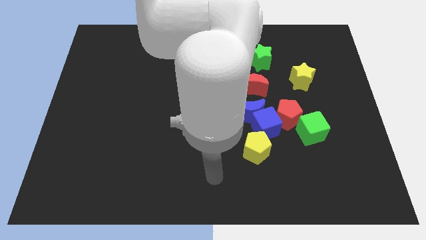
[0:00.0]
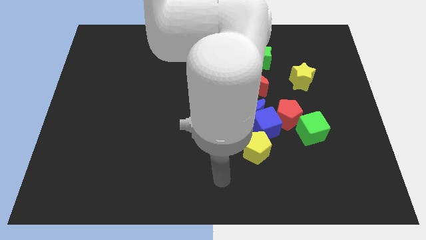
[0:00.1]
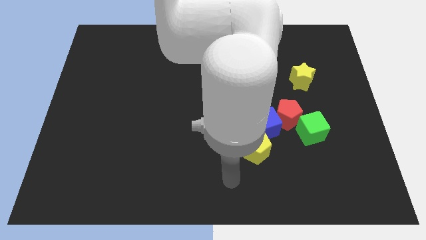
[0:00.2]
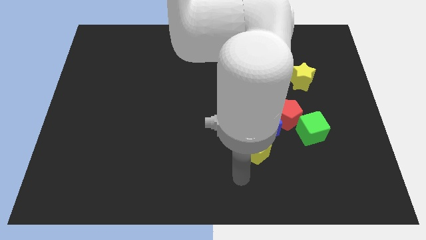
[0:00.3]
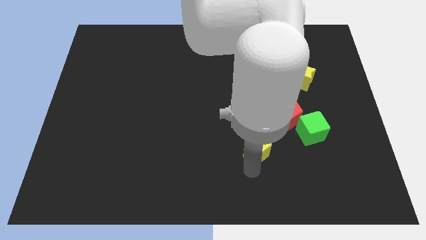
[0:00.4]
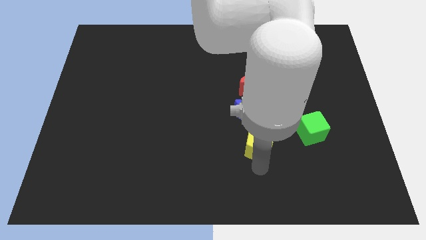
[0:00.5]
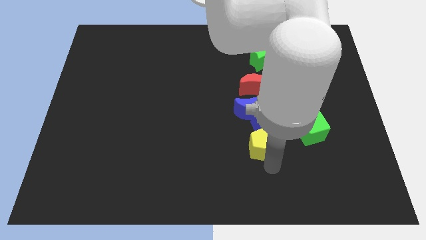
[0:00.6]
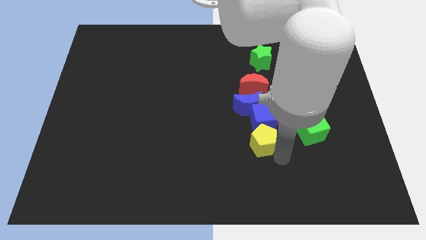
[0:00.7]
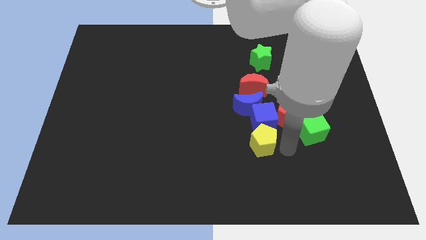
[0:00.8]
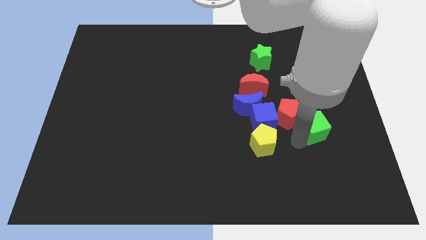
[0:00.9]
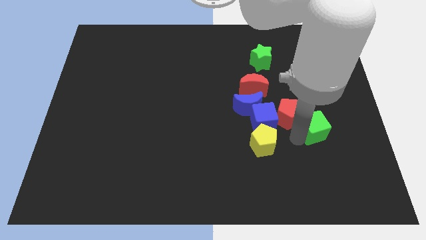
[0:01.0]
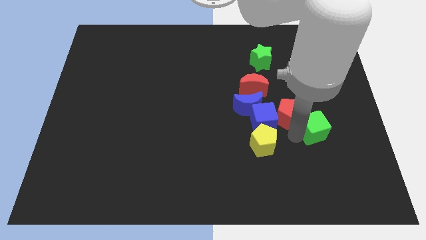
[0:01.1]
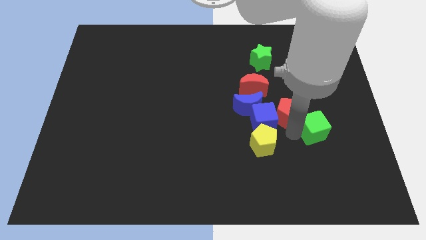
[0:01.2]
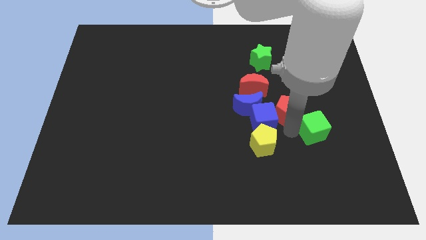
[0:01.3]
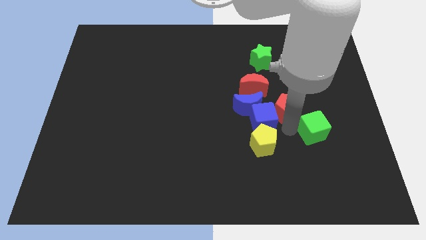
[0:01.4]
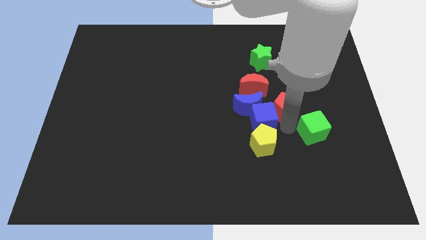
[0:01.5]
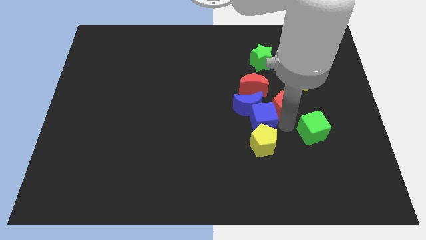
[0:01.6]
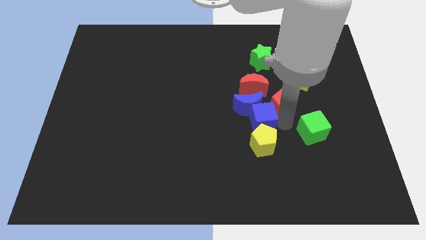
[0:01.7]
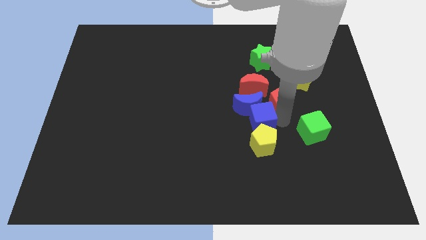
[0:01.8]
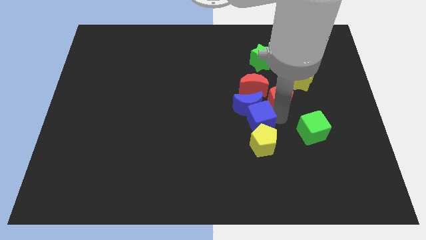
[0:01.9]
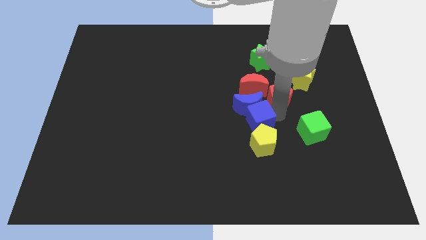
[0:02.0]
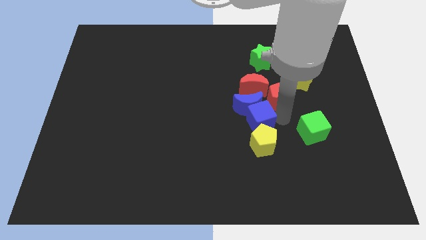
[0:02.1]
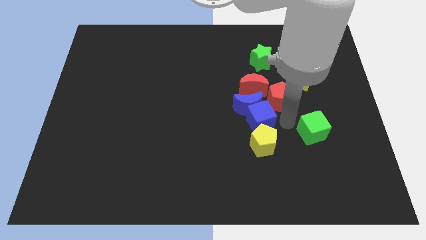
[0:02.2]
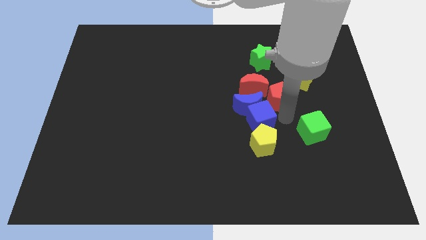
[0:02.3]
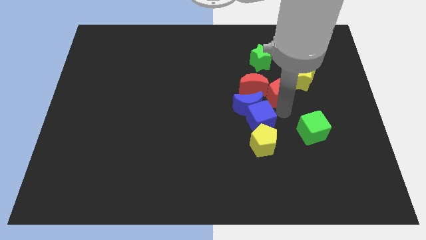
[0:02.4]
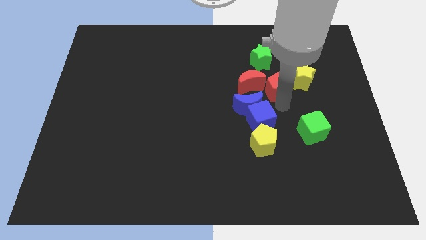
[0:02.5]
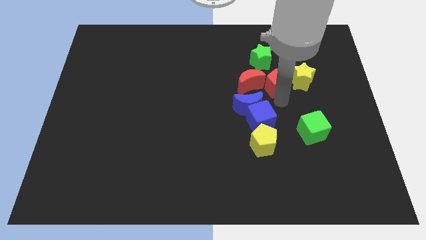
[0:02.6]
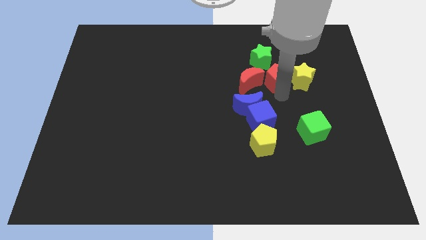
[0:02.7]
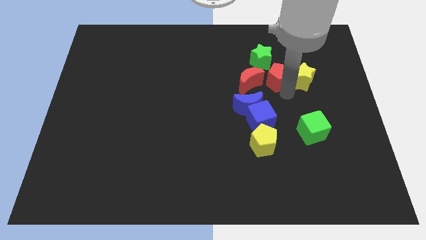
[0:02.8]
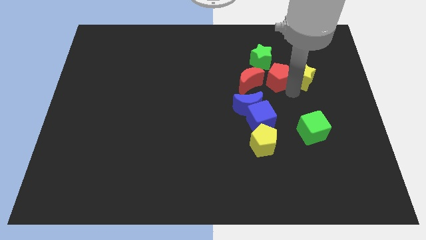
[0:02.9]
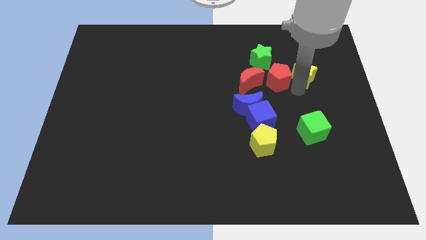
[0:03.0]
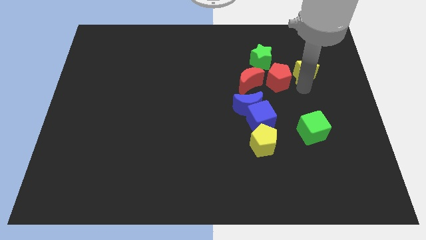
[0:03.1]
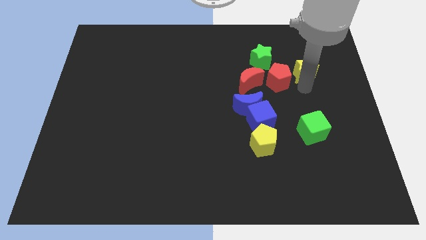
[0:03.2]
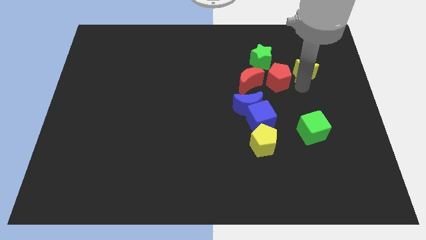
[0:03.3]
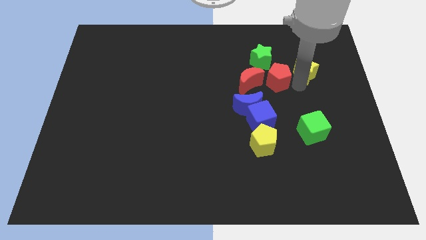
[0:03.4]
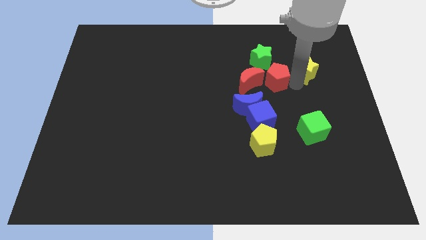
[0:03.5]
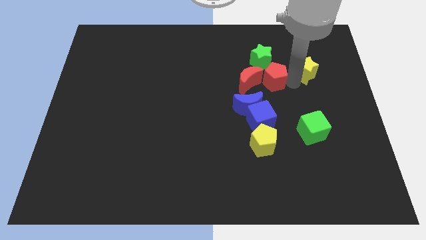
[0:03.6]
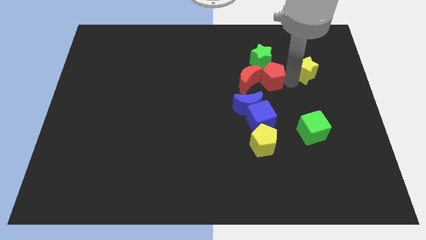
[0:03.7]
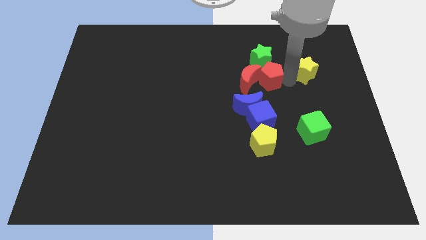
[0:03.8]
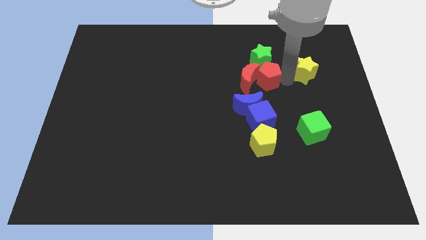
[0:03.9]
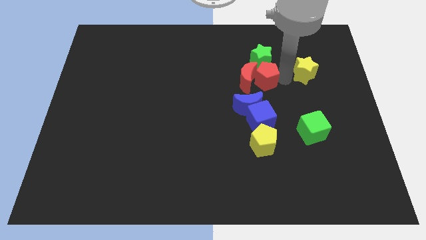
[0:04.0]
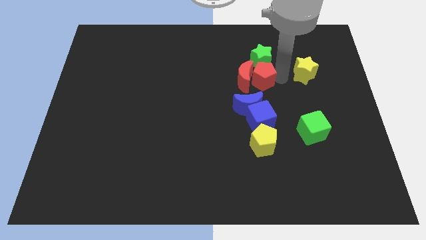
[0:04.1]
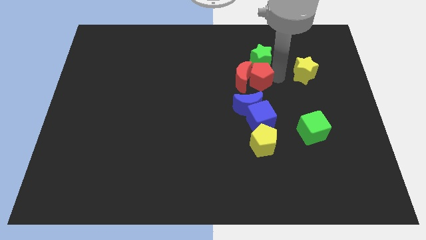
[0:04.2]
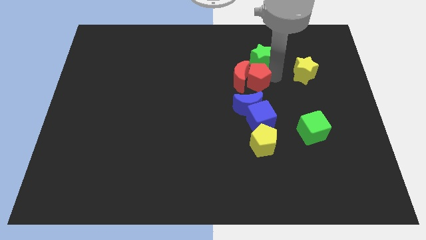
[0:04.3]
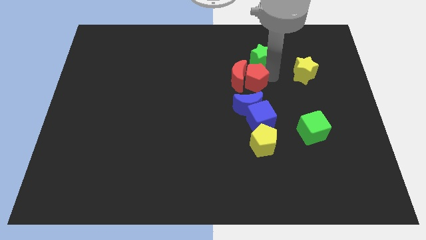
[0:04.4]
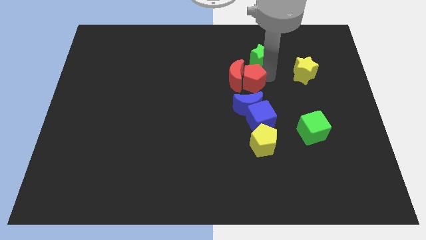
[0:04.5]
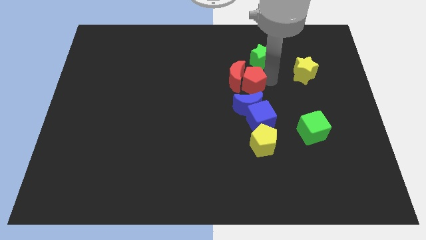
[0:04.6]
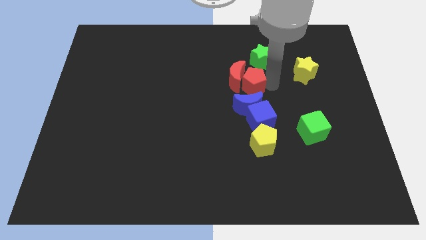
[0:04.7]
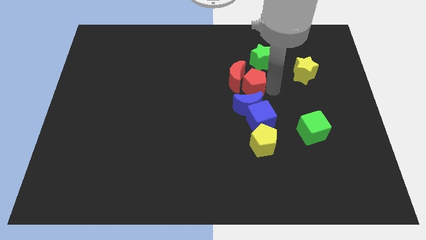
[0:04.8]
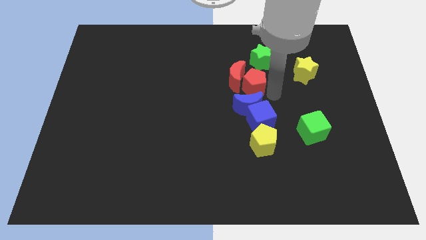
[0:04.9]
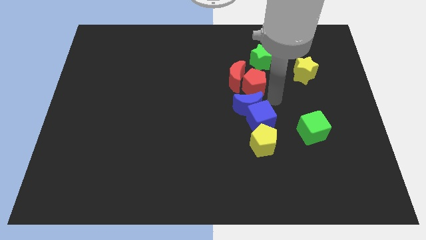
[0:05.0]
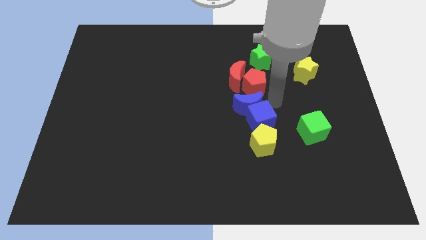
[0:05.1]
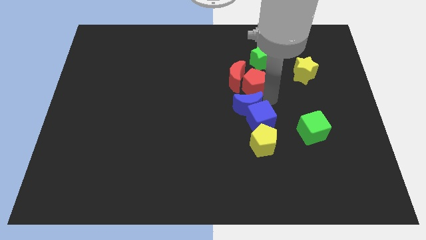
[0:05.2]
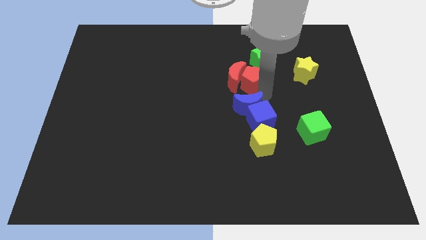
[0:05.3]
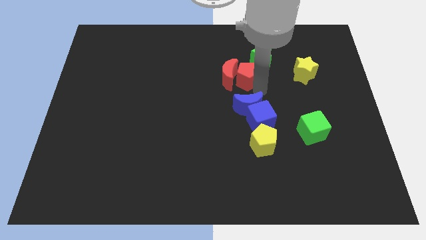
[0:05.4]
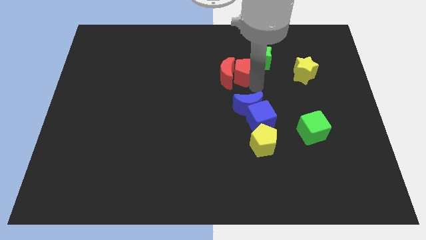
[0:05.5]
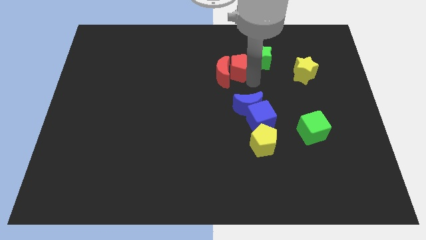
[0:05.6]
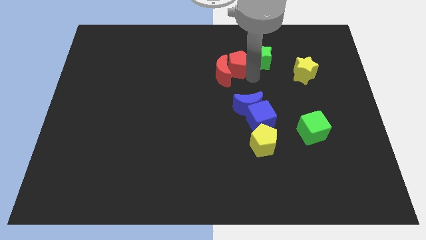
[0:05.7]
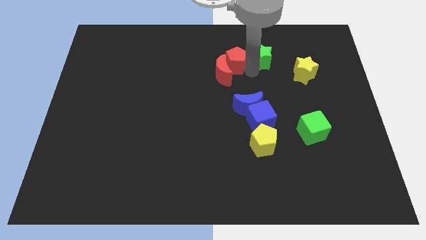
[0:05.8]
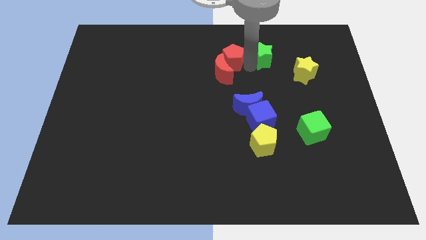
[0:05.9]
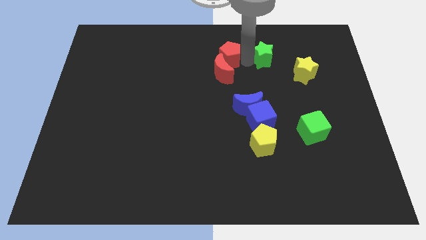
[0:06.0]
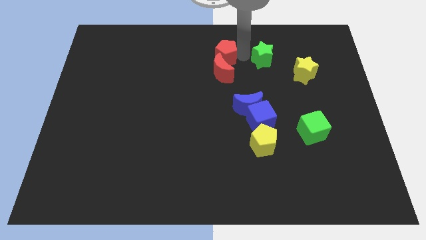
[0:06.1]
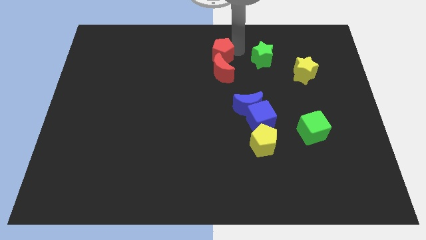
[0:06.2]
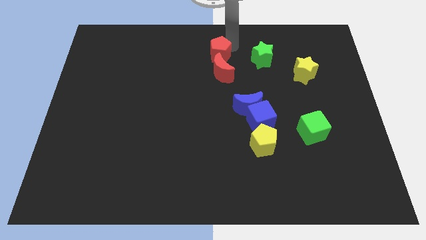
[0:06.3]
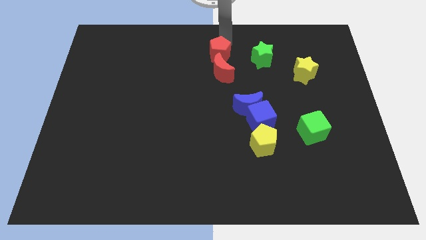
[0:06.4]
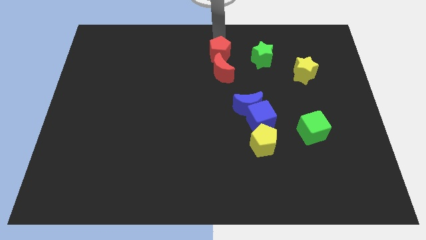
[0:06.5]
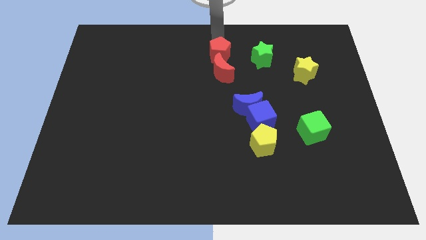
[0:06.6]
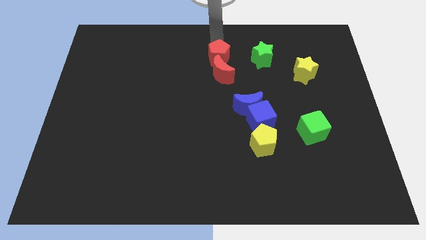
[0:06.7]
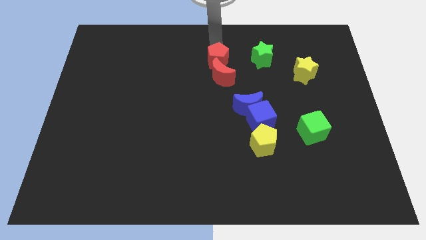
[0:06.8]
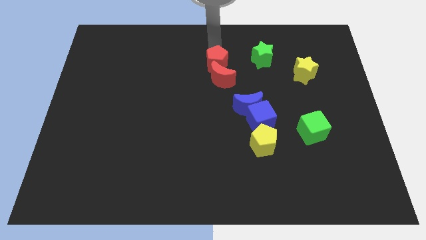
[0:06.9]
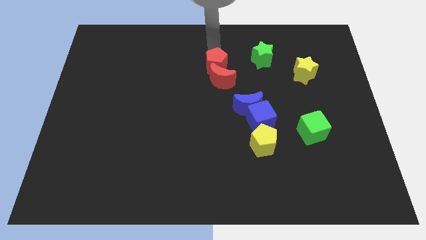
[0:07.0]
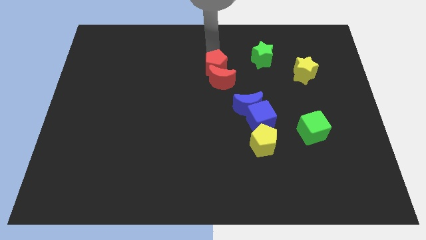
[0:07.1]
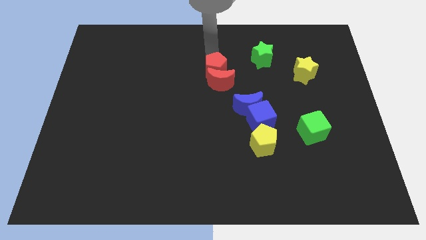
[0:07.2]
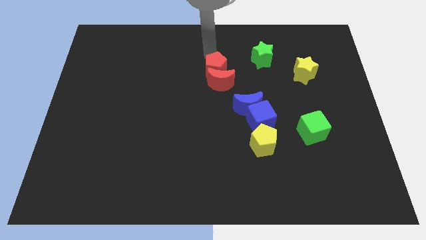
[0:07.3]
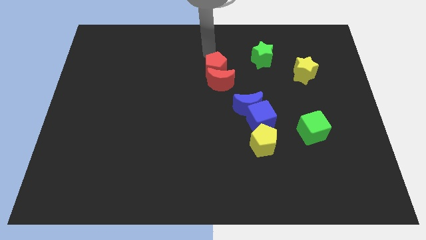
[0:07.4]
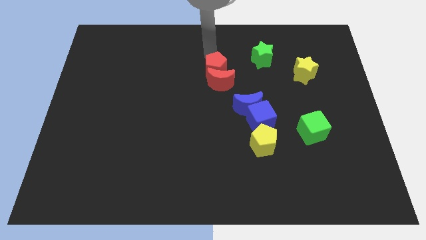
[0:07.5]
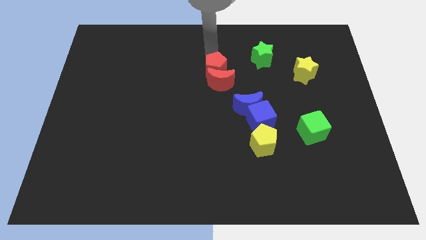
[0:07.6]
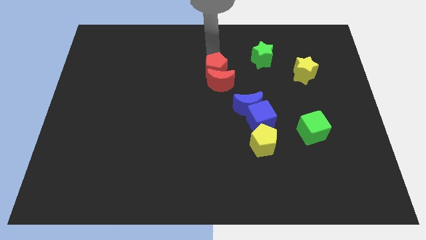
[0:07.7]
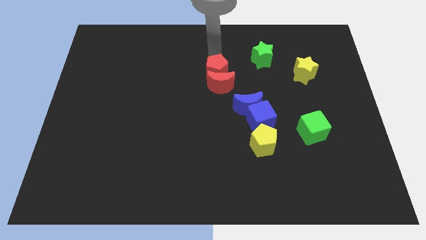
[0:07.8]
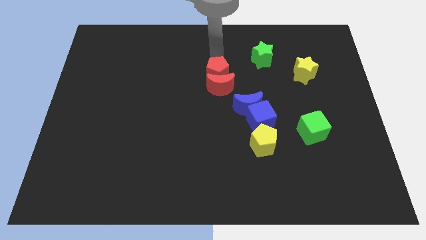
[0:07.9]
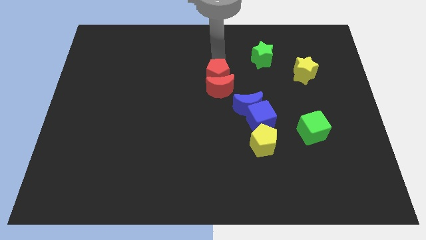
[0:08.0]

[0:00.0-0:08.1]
push the red pentagon to the top left side of the blue moon
